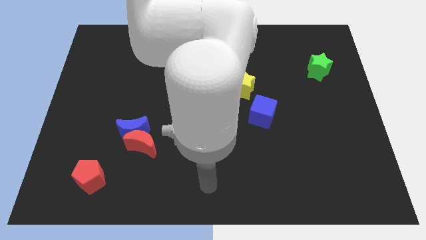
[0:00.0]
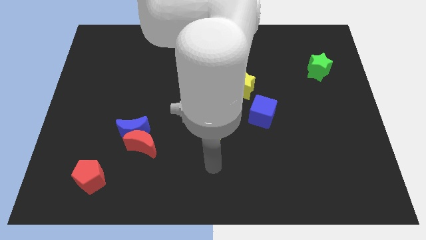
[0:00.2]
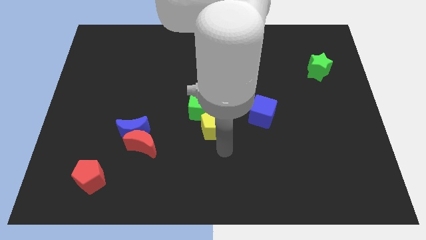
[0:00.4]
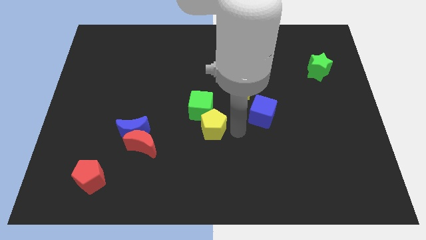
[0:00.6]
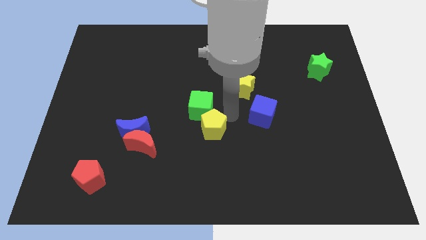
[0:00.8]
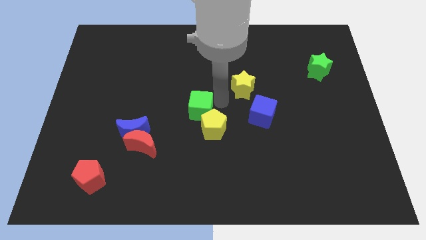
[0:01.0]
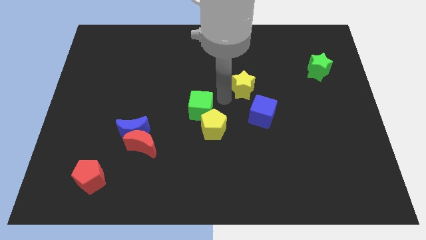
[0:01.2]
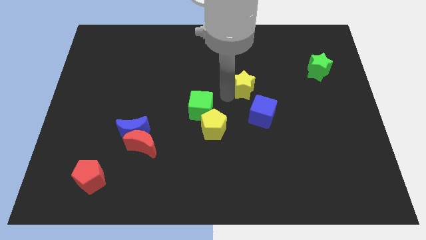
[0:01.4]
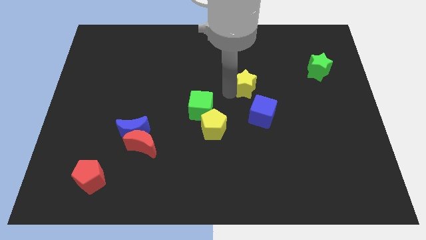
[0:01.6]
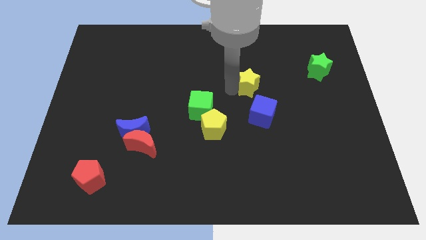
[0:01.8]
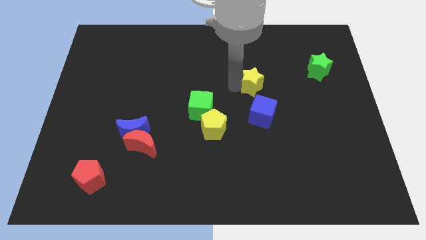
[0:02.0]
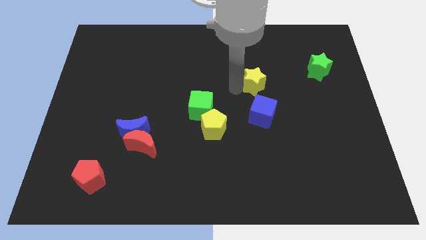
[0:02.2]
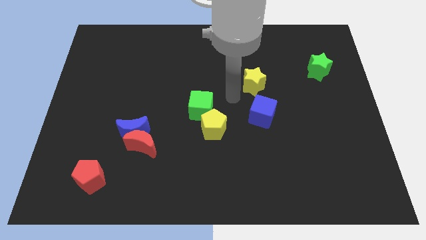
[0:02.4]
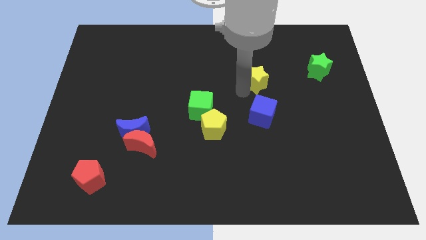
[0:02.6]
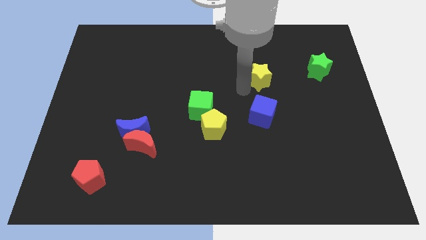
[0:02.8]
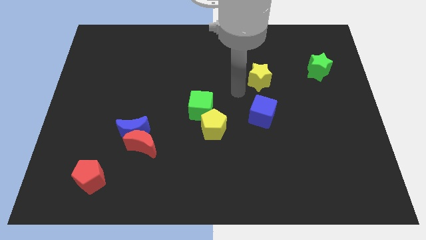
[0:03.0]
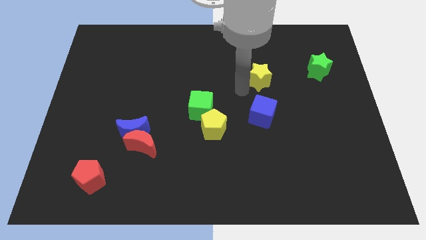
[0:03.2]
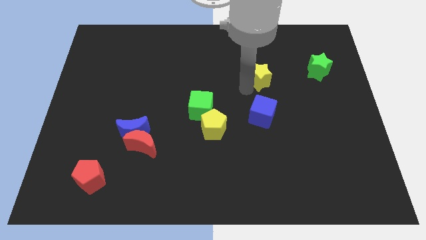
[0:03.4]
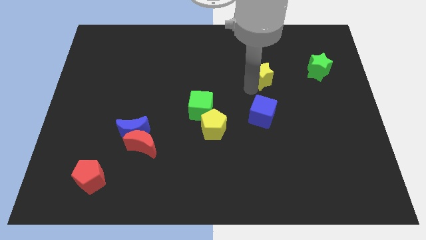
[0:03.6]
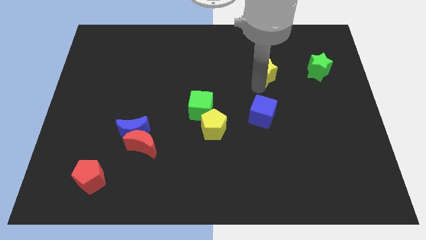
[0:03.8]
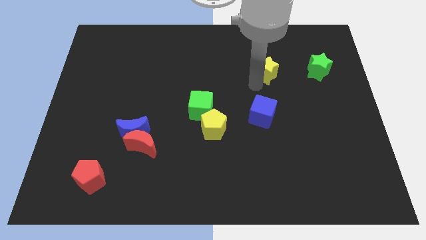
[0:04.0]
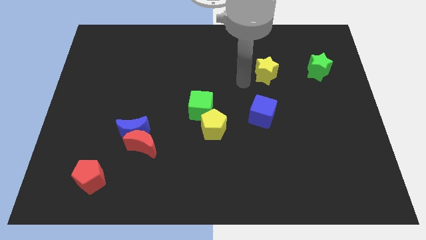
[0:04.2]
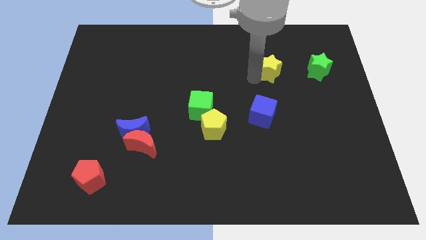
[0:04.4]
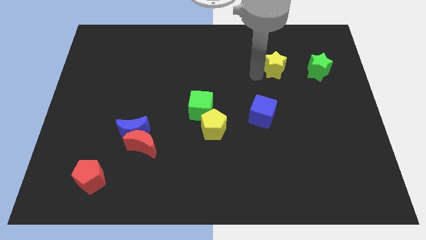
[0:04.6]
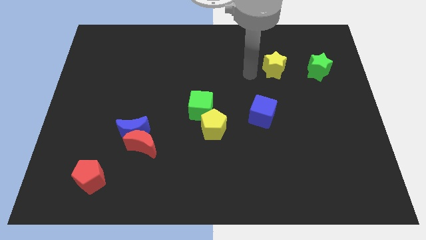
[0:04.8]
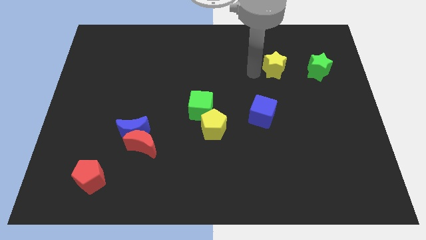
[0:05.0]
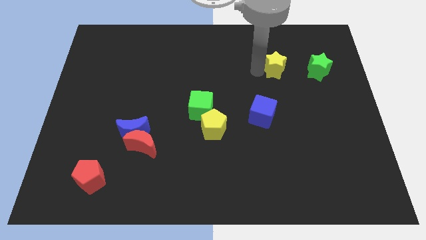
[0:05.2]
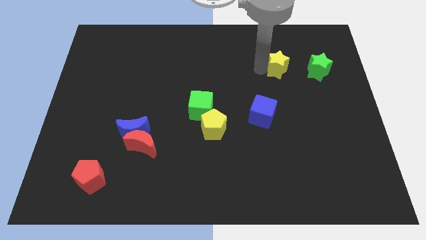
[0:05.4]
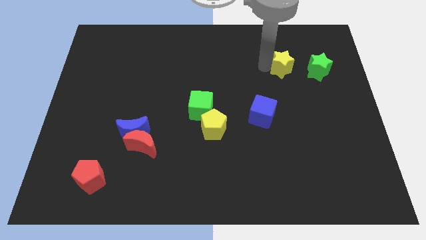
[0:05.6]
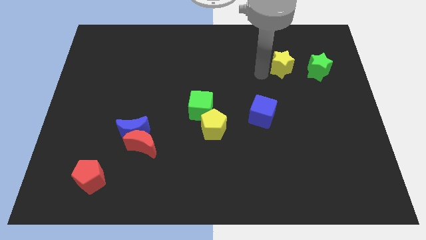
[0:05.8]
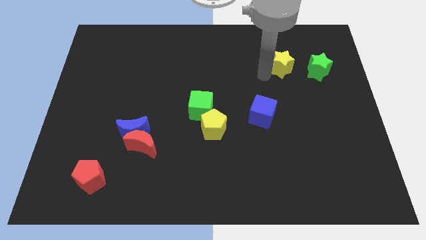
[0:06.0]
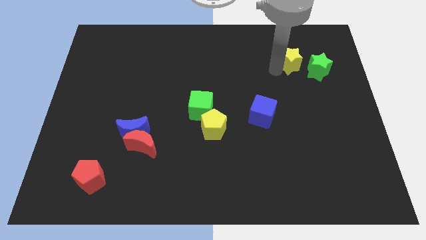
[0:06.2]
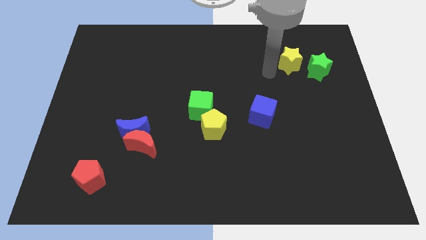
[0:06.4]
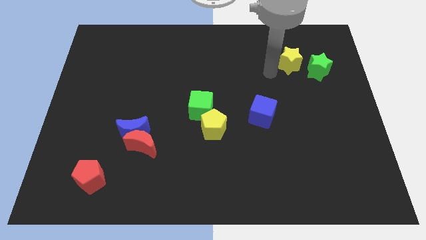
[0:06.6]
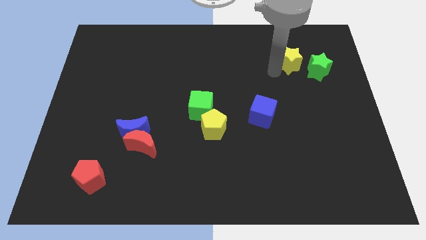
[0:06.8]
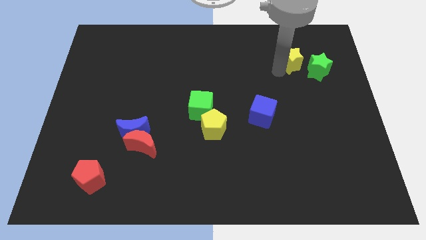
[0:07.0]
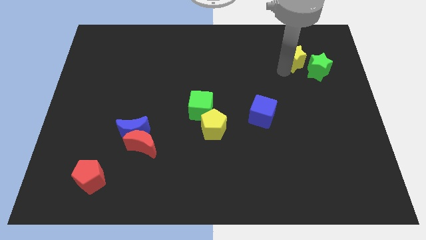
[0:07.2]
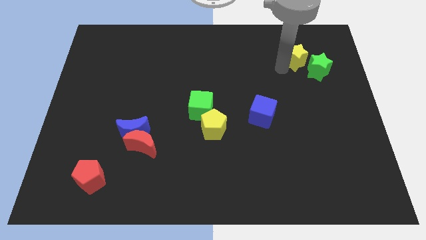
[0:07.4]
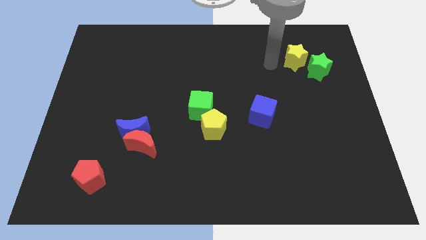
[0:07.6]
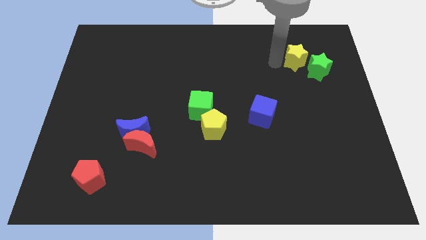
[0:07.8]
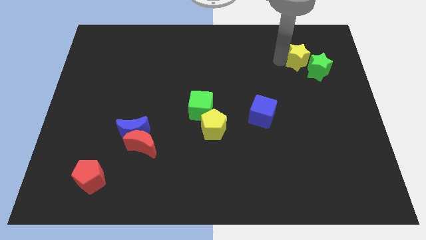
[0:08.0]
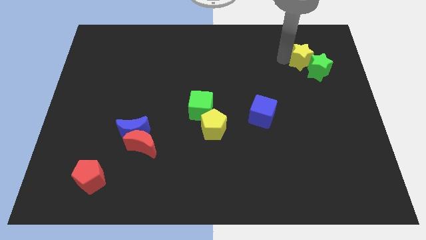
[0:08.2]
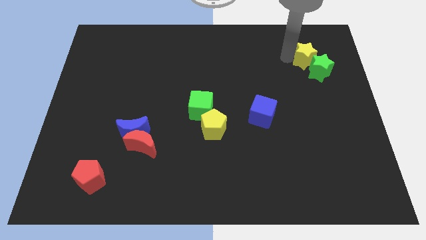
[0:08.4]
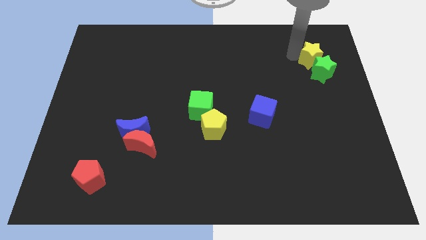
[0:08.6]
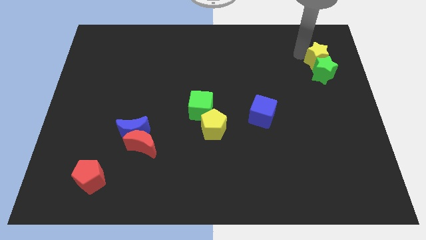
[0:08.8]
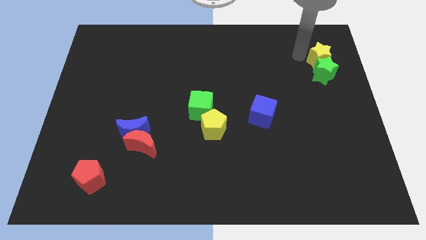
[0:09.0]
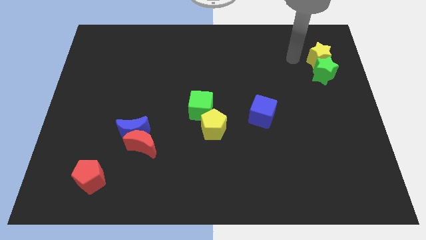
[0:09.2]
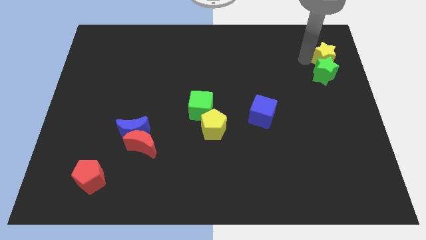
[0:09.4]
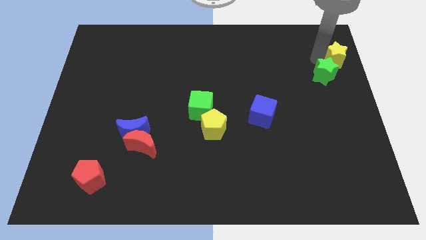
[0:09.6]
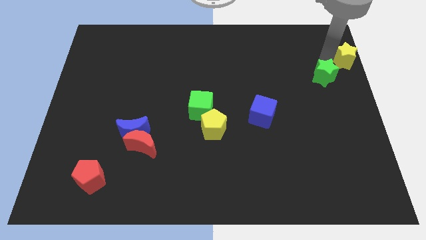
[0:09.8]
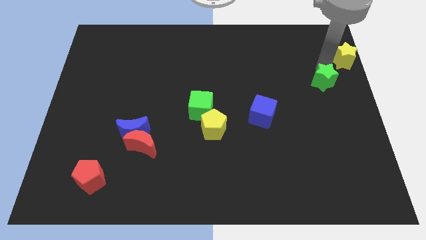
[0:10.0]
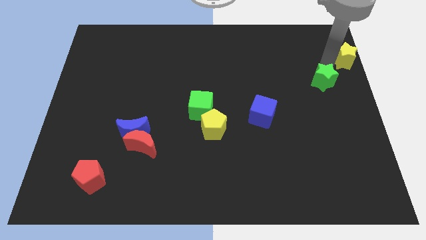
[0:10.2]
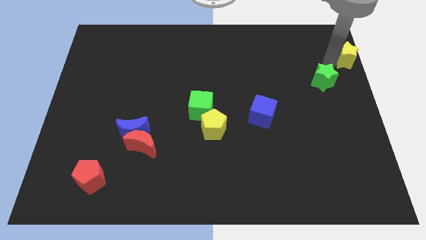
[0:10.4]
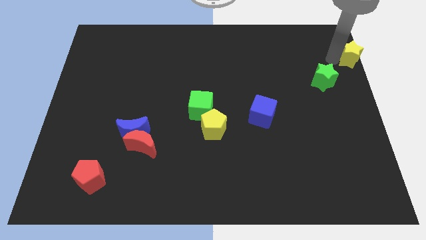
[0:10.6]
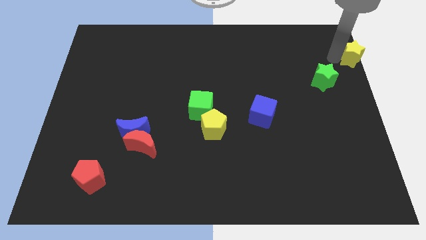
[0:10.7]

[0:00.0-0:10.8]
slide the yellow star to the upper right corner

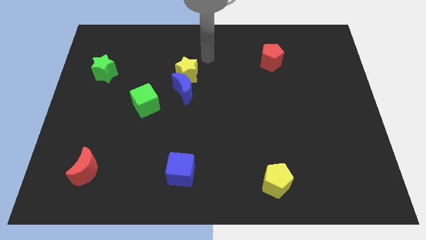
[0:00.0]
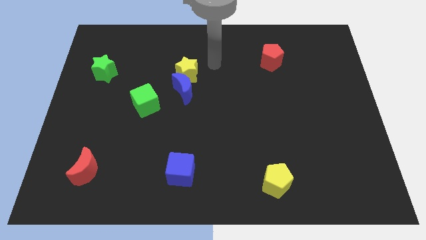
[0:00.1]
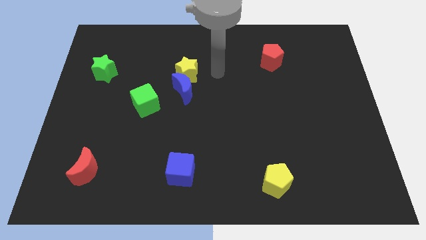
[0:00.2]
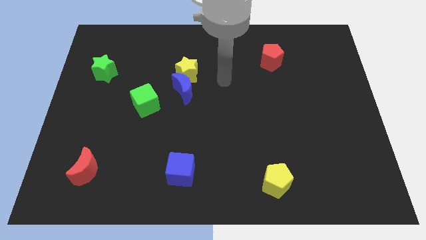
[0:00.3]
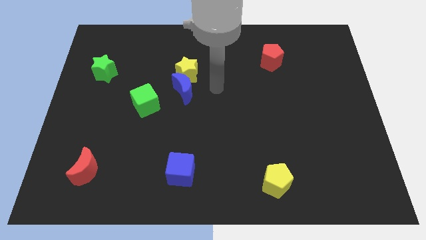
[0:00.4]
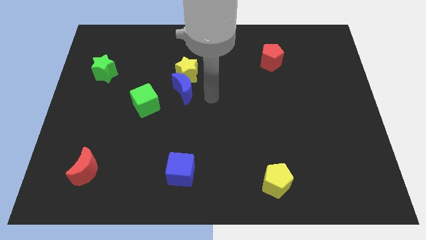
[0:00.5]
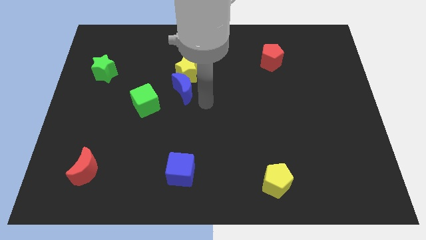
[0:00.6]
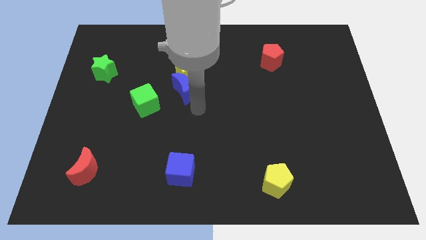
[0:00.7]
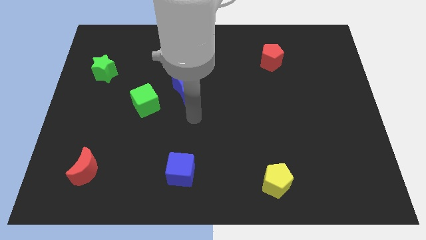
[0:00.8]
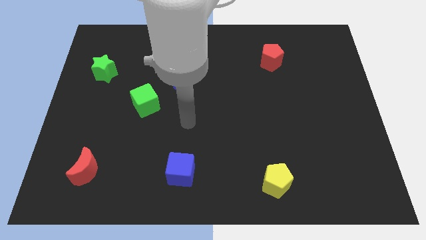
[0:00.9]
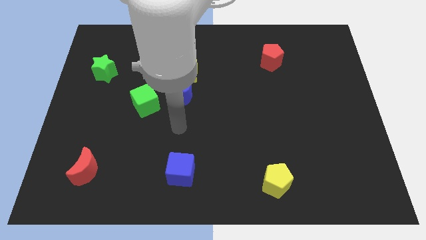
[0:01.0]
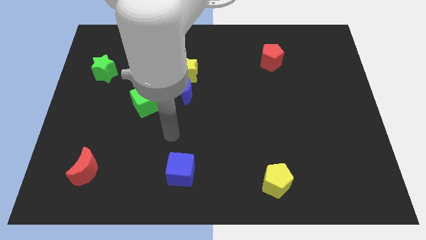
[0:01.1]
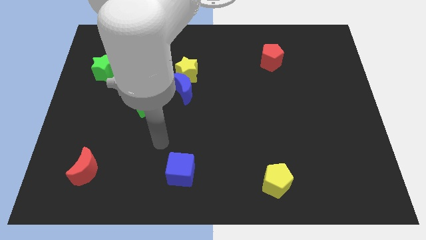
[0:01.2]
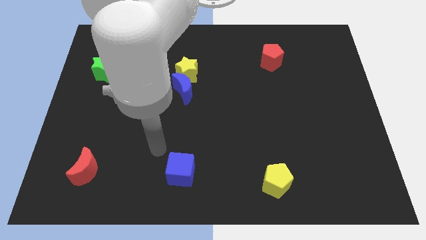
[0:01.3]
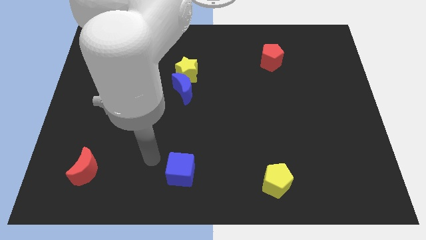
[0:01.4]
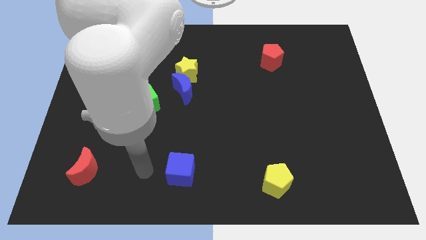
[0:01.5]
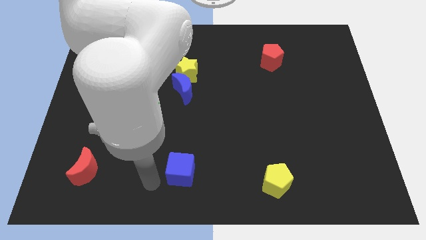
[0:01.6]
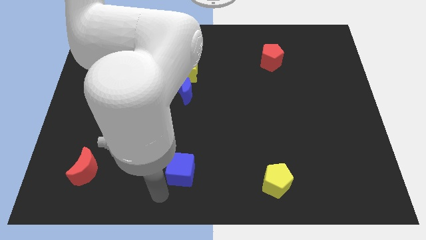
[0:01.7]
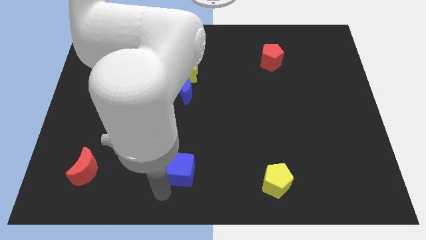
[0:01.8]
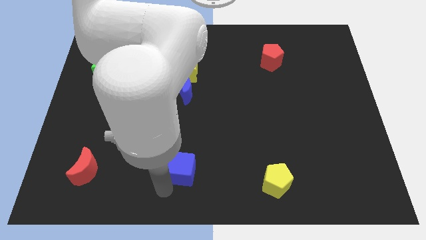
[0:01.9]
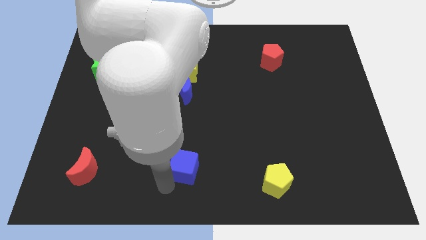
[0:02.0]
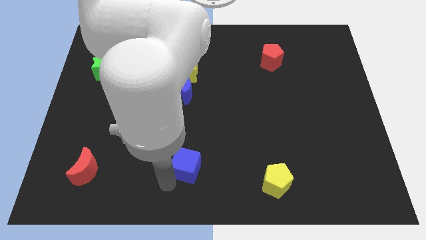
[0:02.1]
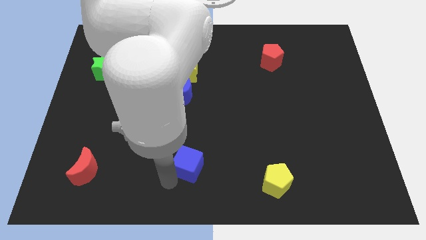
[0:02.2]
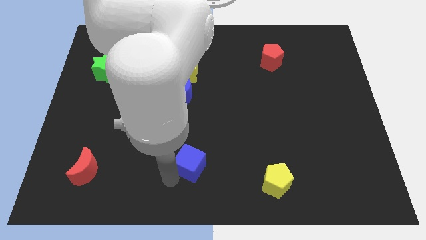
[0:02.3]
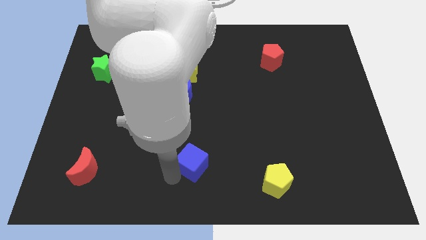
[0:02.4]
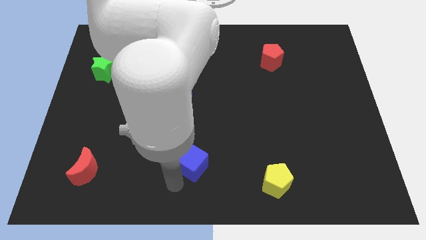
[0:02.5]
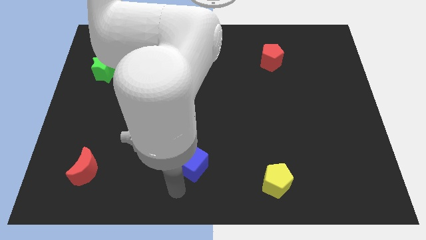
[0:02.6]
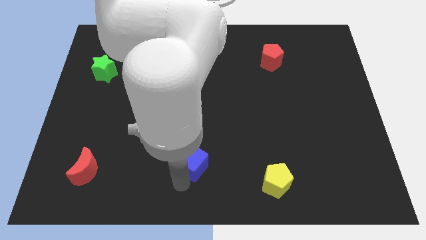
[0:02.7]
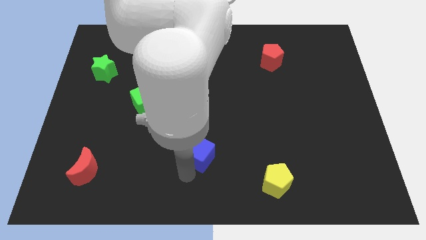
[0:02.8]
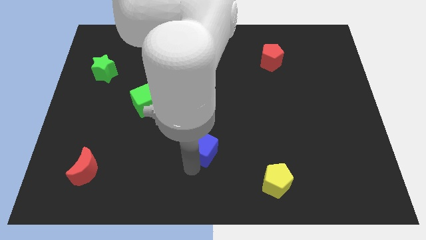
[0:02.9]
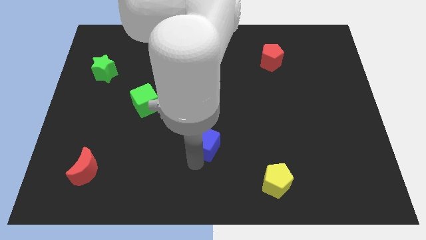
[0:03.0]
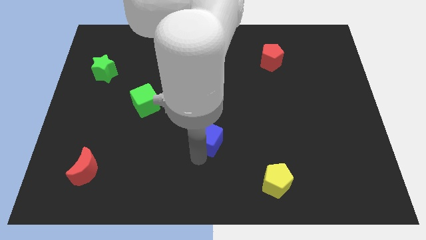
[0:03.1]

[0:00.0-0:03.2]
put the blue cube to the center
